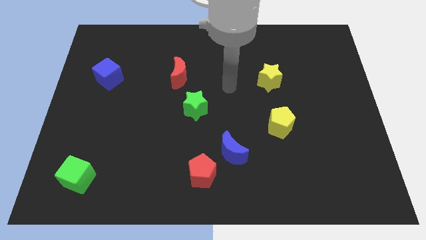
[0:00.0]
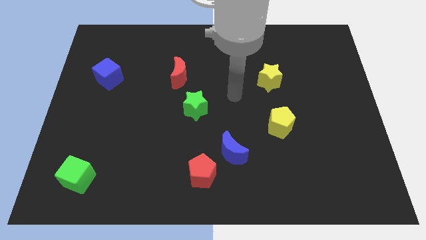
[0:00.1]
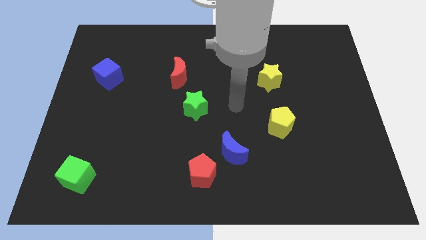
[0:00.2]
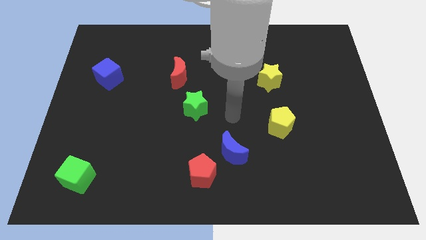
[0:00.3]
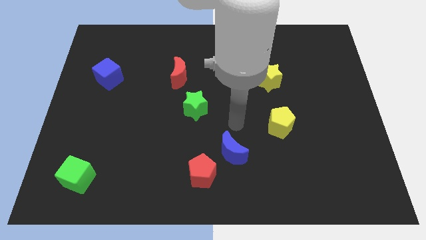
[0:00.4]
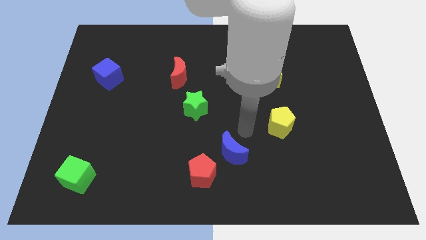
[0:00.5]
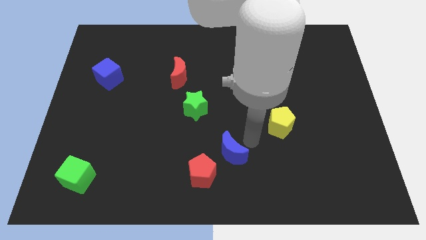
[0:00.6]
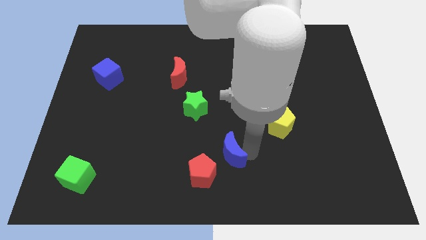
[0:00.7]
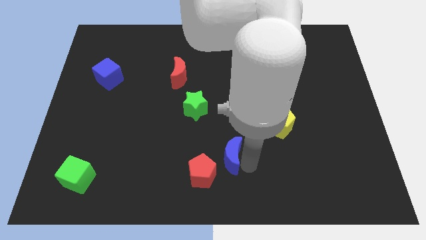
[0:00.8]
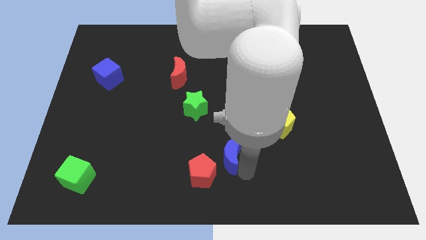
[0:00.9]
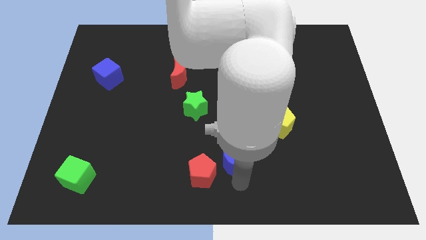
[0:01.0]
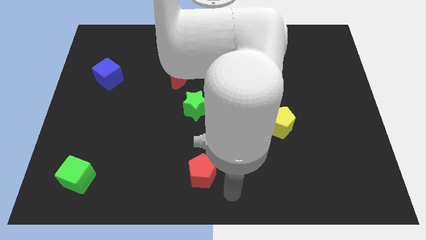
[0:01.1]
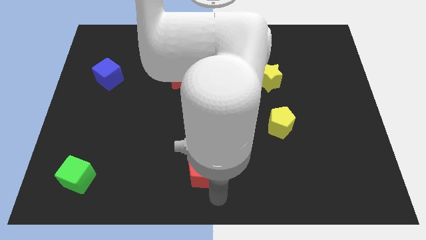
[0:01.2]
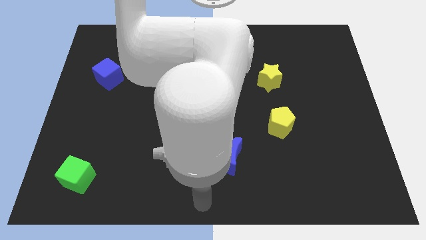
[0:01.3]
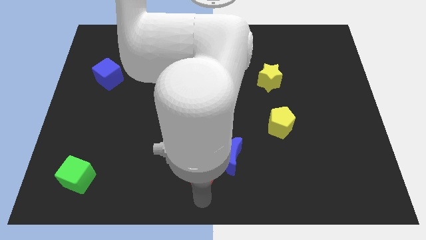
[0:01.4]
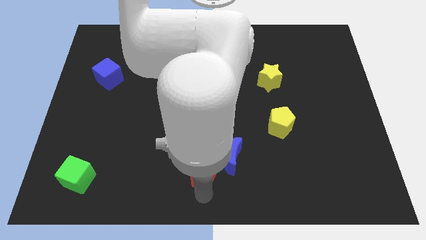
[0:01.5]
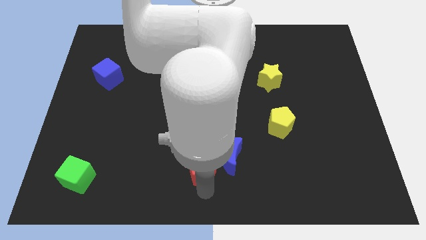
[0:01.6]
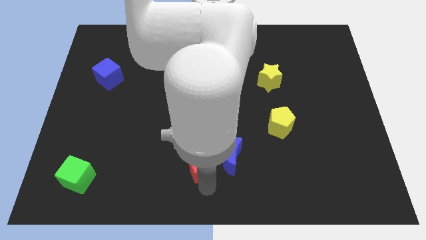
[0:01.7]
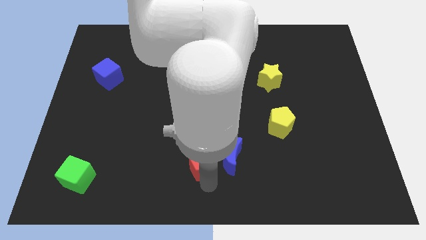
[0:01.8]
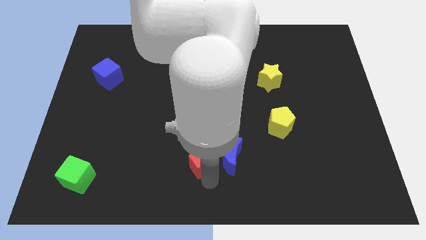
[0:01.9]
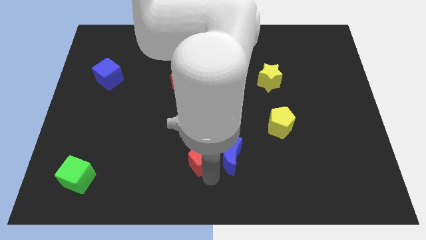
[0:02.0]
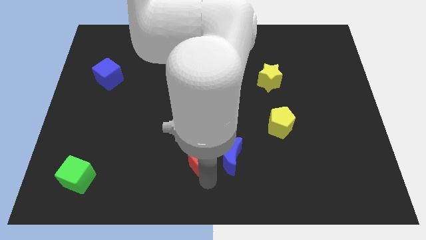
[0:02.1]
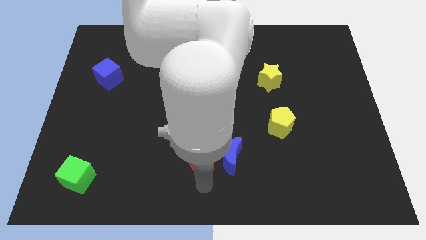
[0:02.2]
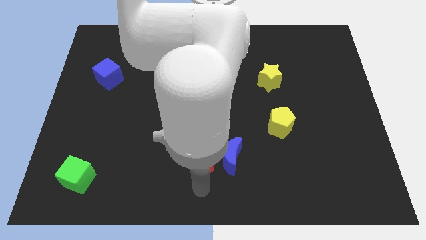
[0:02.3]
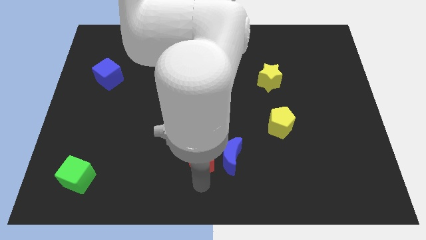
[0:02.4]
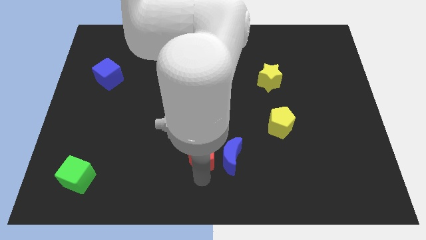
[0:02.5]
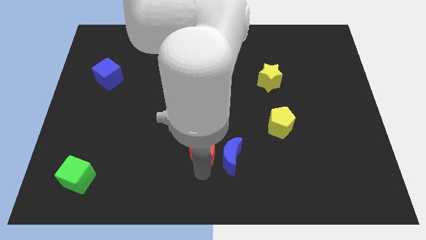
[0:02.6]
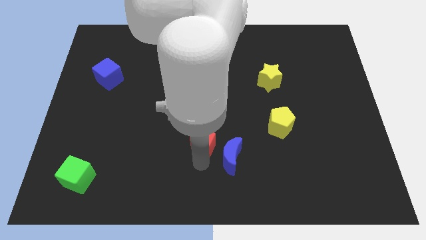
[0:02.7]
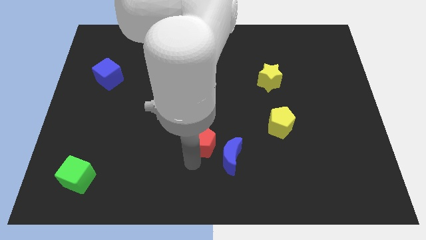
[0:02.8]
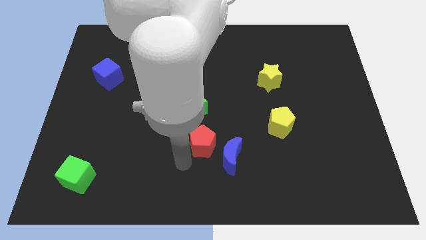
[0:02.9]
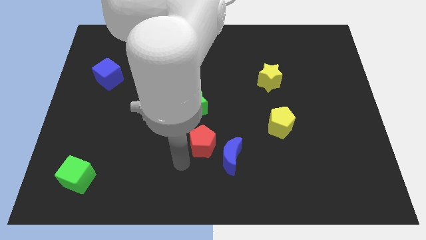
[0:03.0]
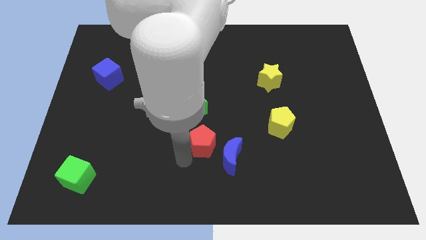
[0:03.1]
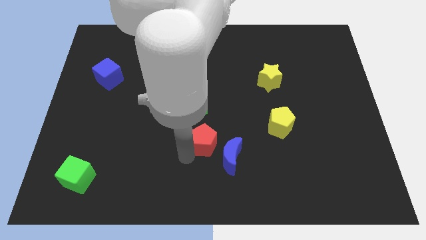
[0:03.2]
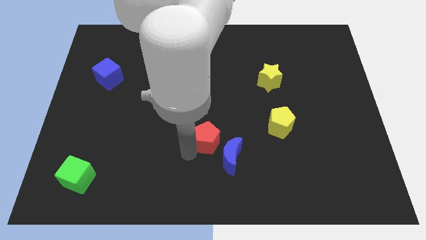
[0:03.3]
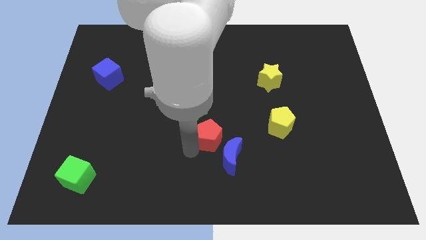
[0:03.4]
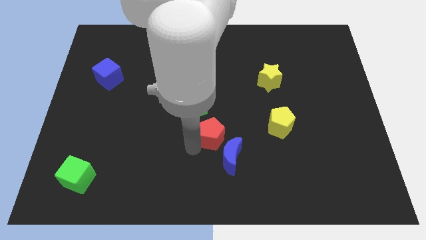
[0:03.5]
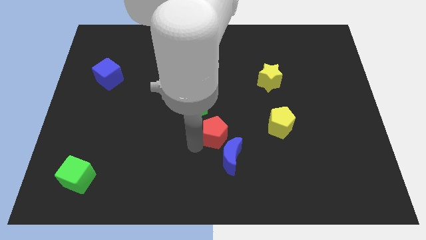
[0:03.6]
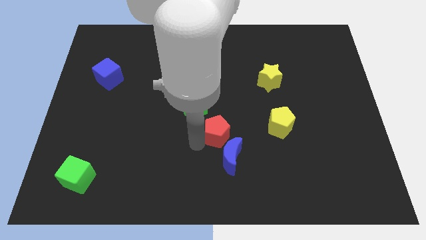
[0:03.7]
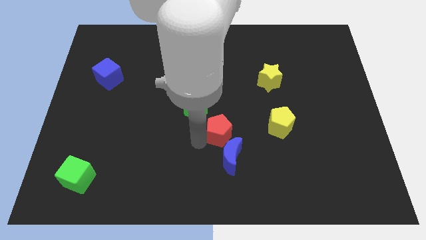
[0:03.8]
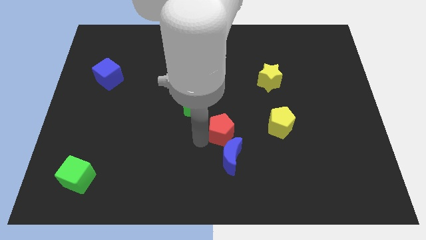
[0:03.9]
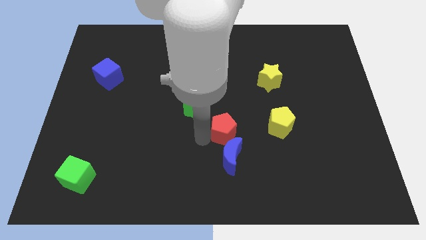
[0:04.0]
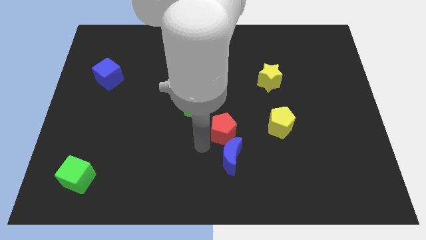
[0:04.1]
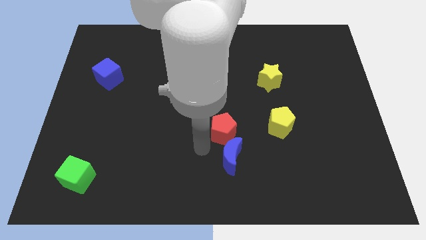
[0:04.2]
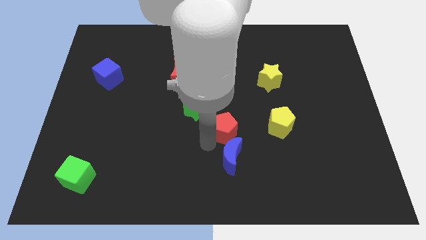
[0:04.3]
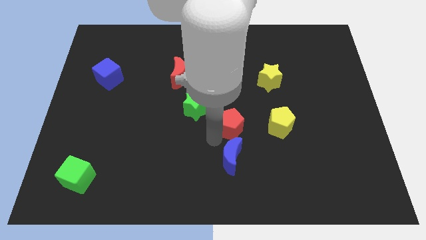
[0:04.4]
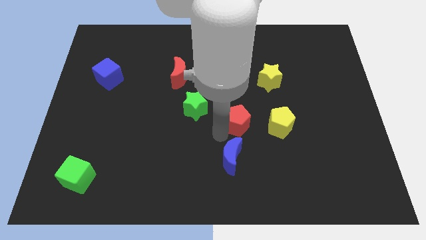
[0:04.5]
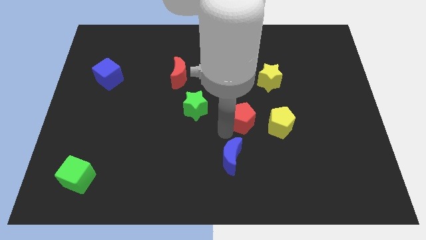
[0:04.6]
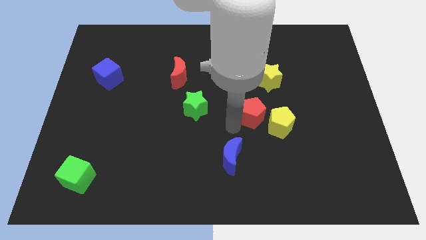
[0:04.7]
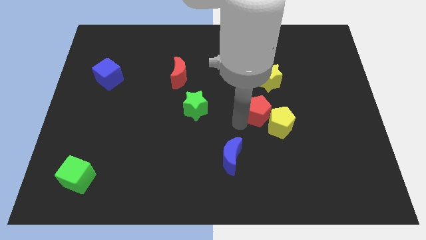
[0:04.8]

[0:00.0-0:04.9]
push the red pentagon upwards and to the right diagonally

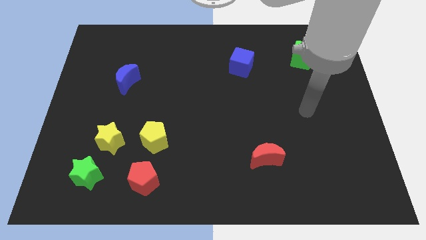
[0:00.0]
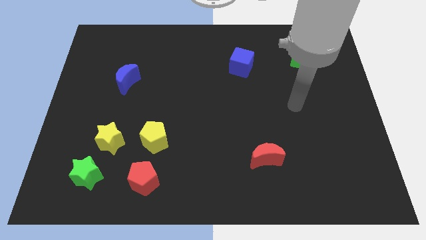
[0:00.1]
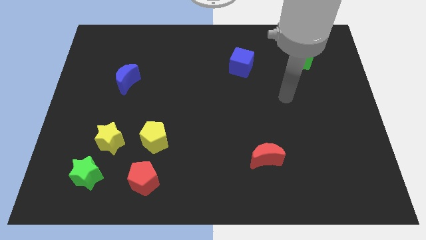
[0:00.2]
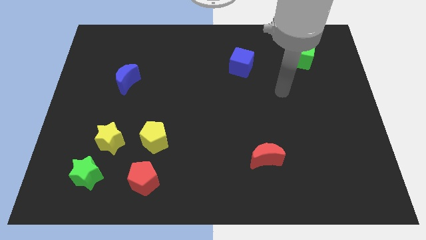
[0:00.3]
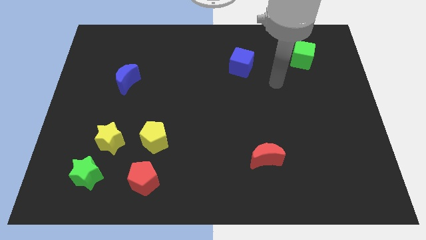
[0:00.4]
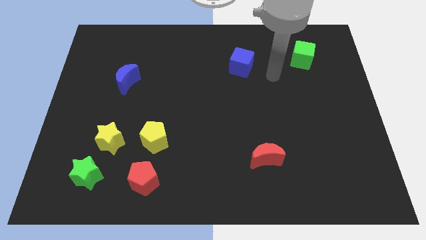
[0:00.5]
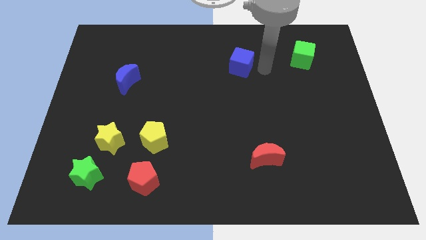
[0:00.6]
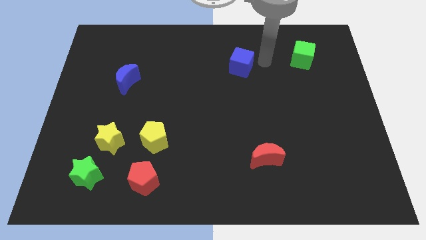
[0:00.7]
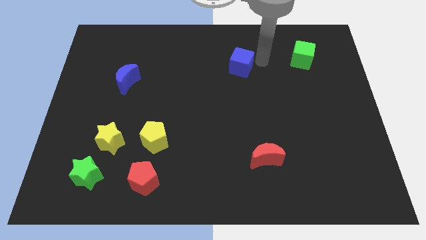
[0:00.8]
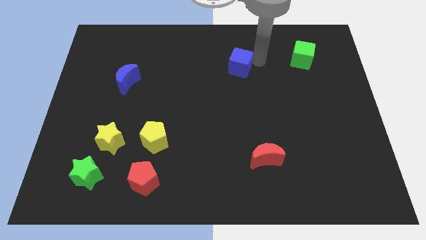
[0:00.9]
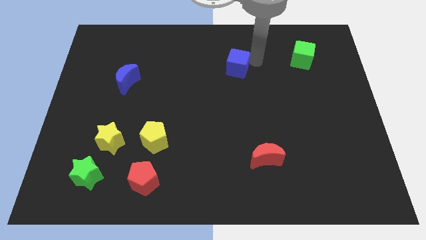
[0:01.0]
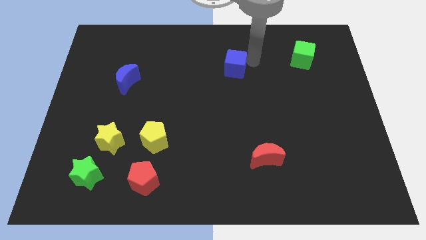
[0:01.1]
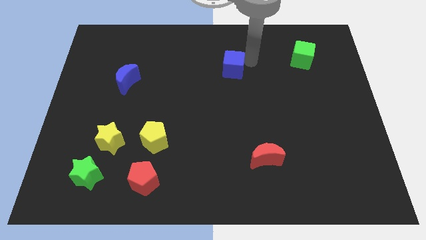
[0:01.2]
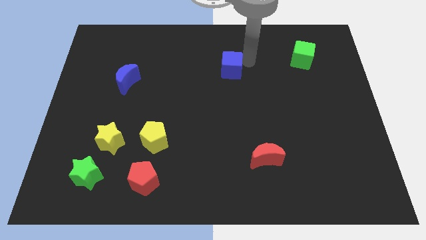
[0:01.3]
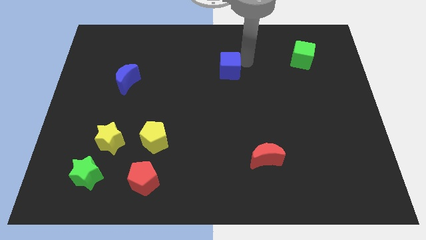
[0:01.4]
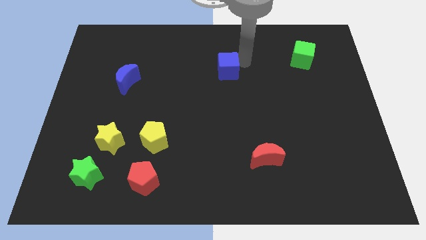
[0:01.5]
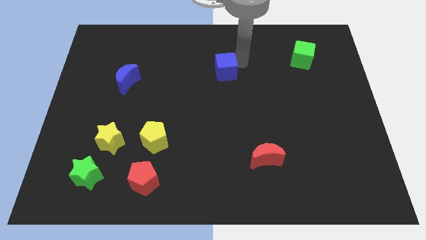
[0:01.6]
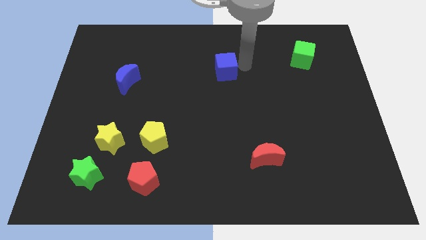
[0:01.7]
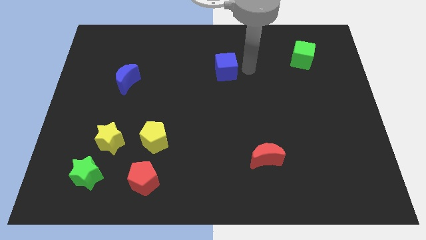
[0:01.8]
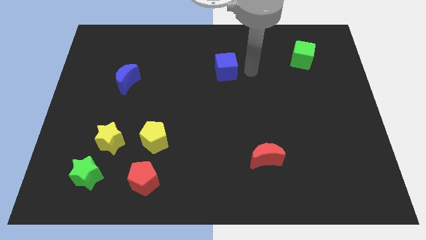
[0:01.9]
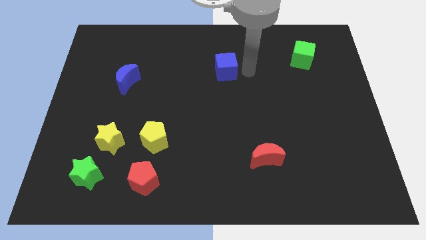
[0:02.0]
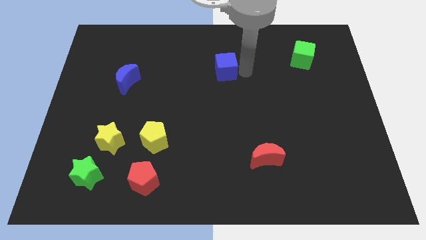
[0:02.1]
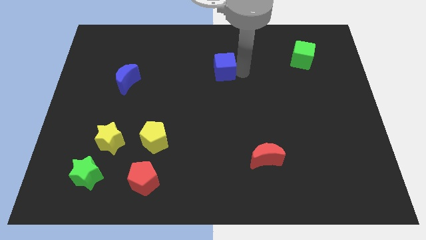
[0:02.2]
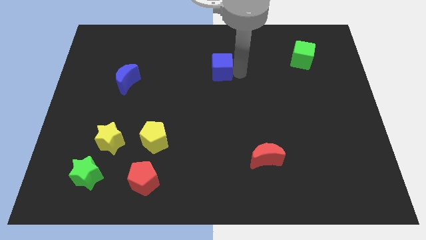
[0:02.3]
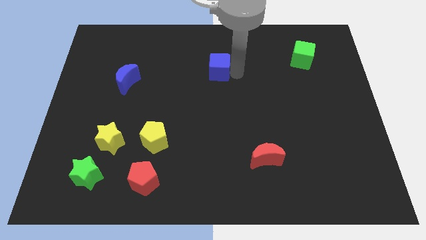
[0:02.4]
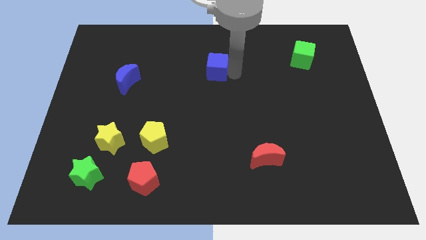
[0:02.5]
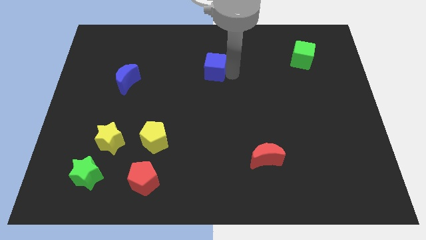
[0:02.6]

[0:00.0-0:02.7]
push the blue cube a bit left
